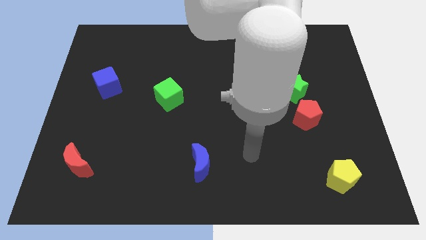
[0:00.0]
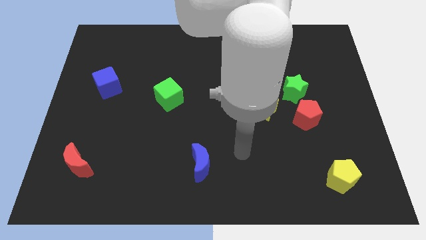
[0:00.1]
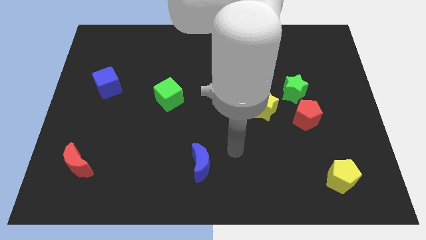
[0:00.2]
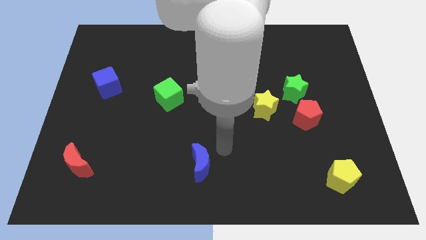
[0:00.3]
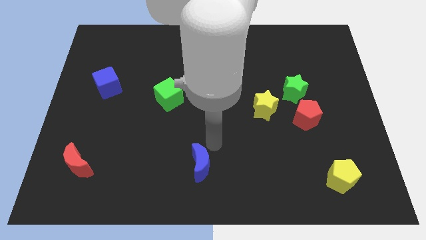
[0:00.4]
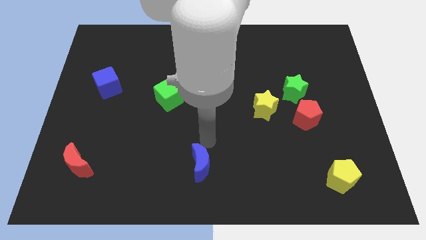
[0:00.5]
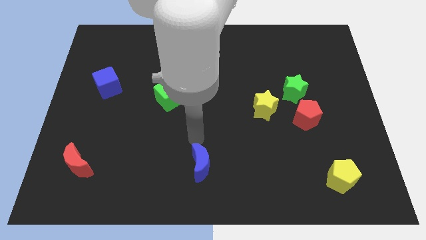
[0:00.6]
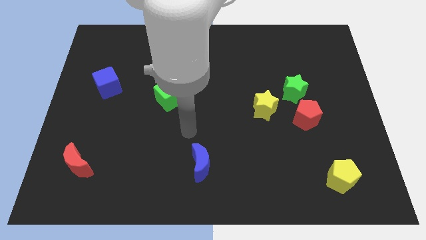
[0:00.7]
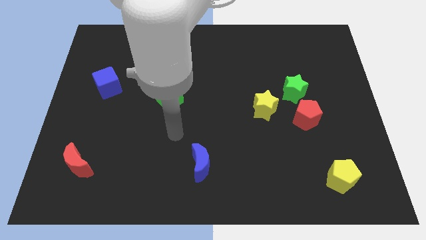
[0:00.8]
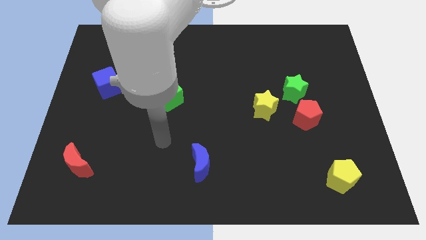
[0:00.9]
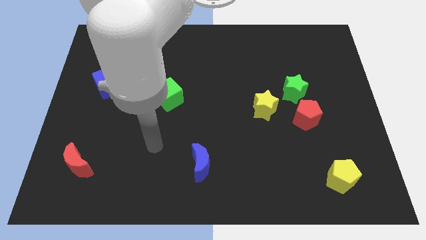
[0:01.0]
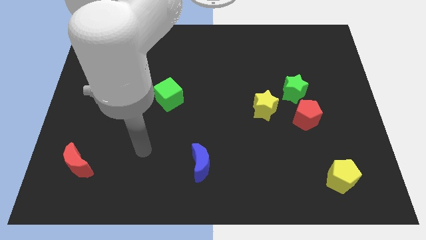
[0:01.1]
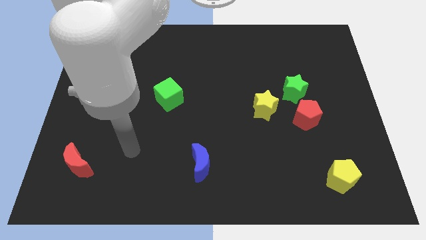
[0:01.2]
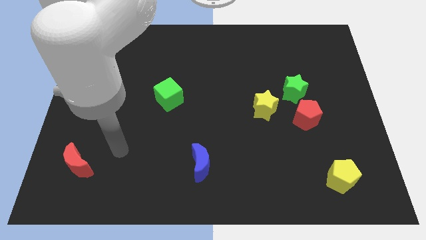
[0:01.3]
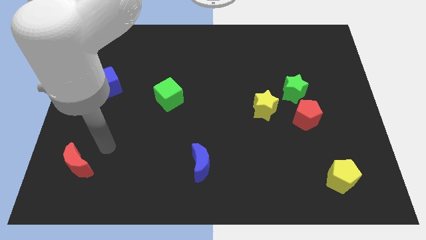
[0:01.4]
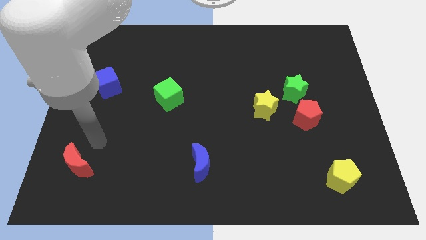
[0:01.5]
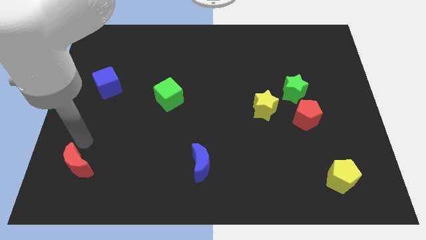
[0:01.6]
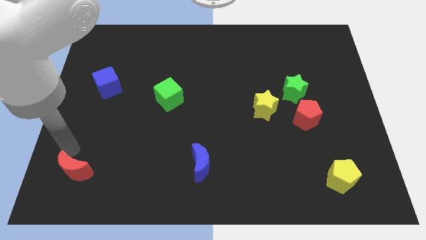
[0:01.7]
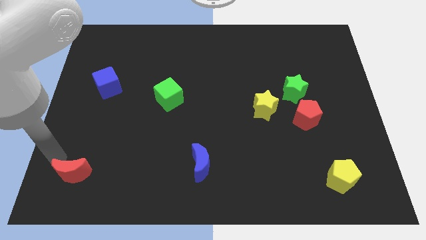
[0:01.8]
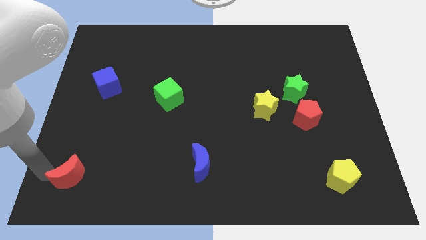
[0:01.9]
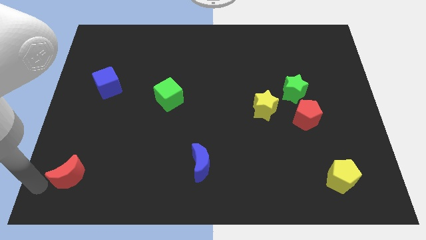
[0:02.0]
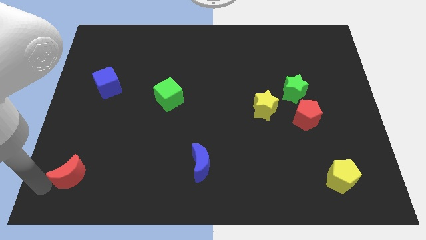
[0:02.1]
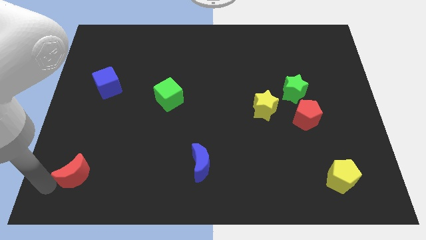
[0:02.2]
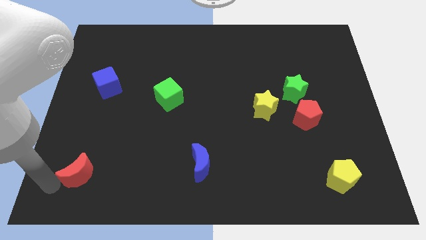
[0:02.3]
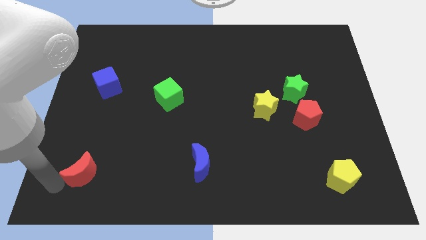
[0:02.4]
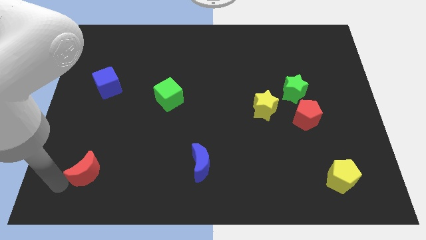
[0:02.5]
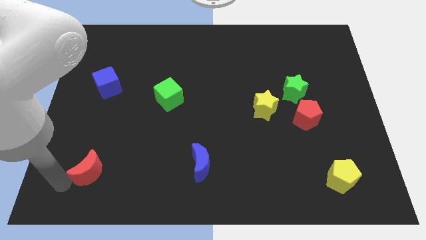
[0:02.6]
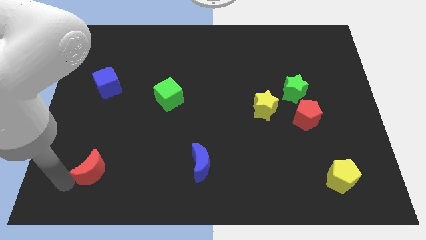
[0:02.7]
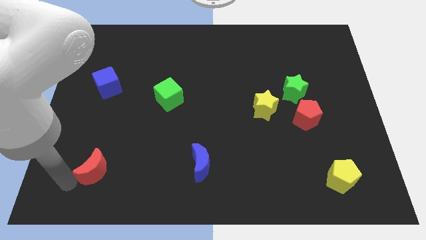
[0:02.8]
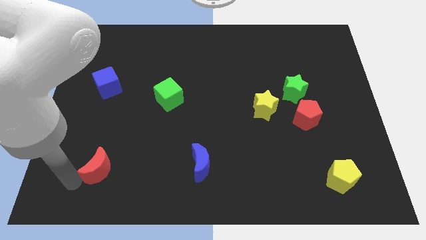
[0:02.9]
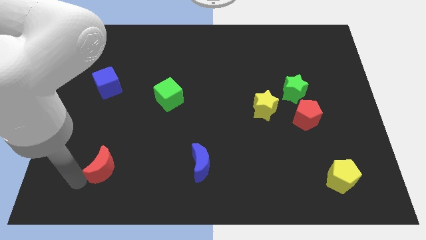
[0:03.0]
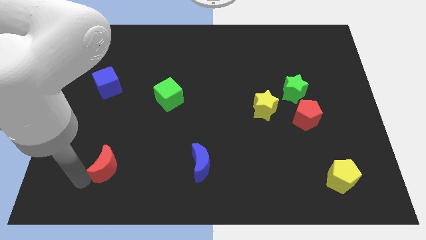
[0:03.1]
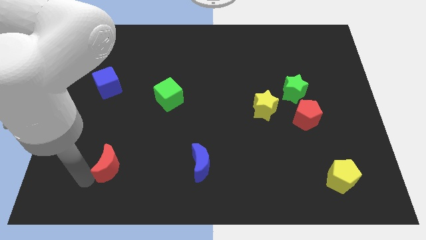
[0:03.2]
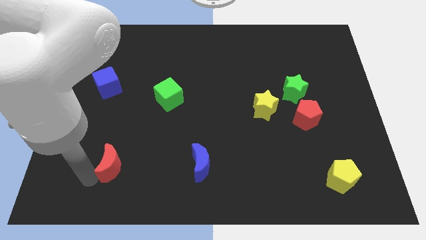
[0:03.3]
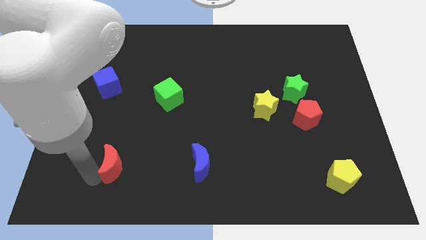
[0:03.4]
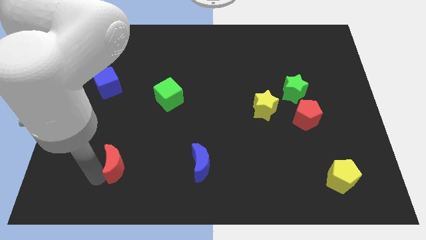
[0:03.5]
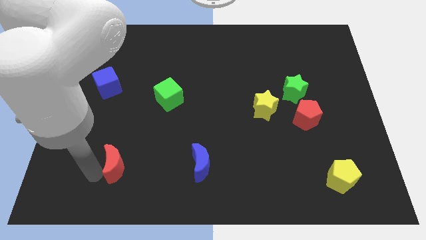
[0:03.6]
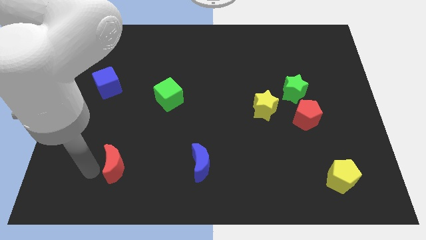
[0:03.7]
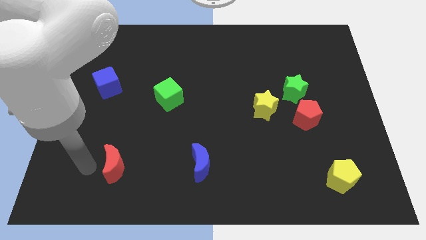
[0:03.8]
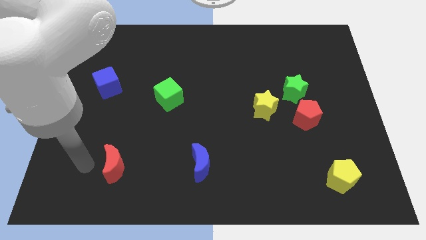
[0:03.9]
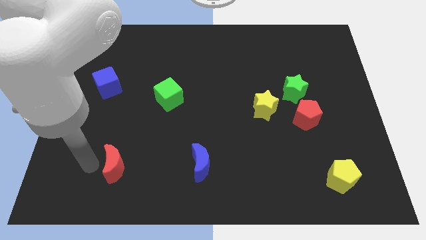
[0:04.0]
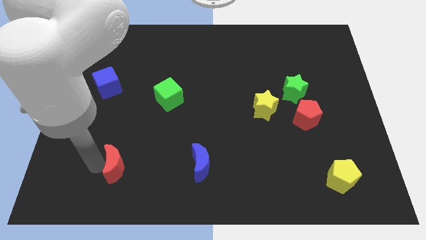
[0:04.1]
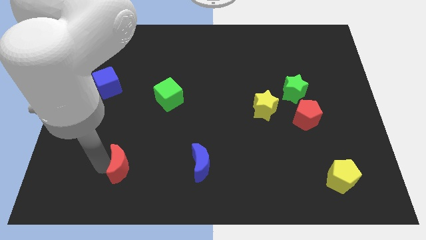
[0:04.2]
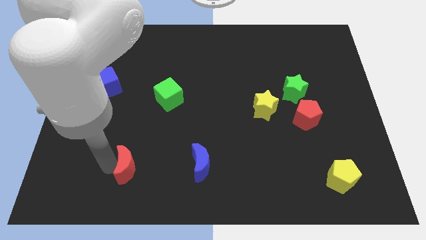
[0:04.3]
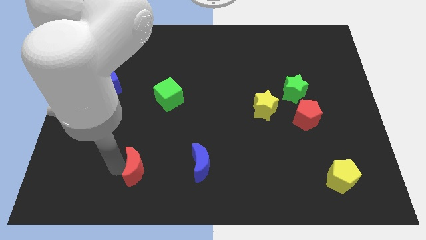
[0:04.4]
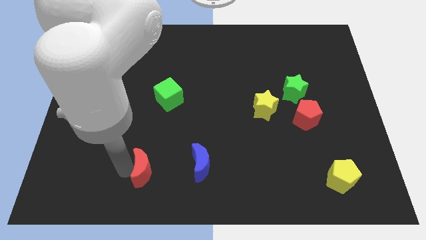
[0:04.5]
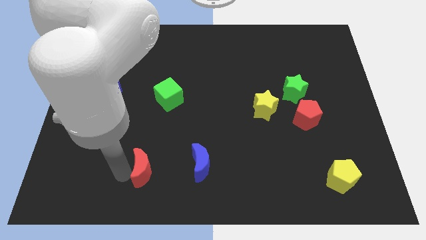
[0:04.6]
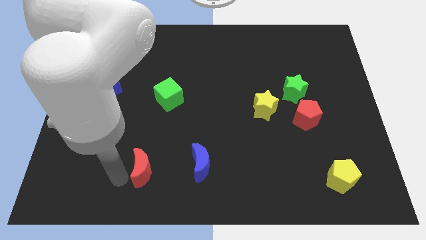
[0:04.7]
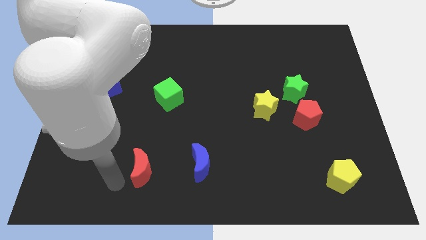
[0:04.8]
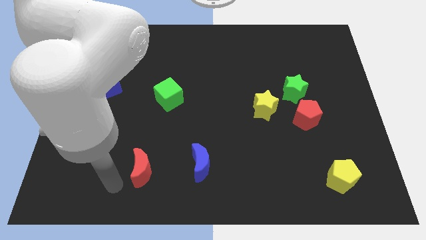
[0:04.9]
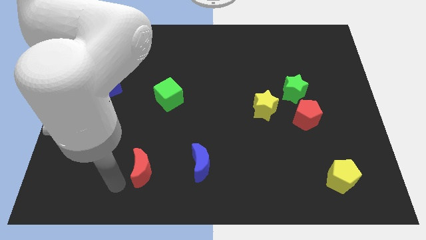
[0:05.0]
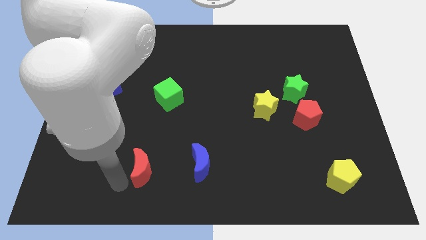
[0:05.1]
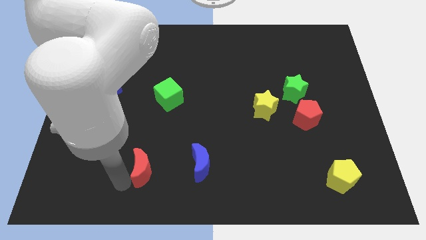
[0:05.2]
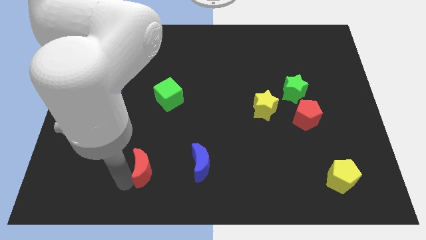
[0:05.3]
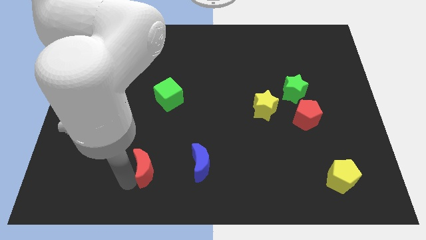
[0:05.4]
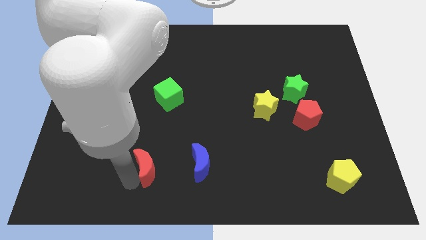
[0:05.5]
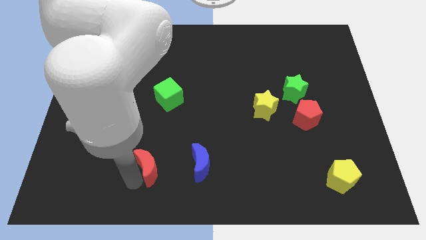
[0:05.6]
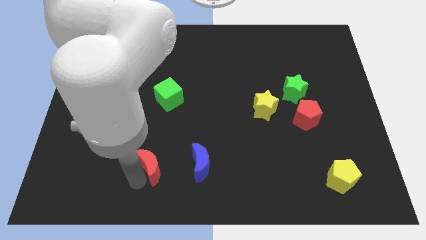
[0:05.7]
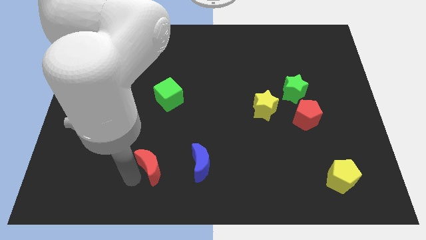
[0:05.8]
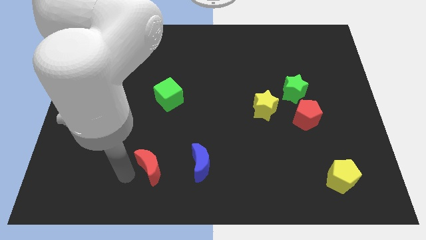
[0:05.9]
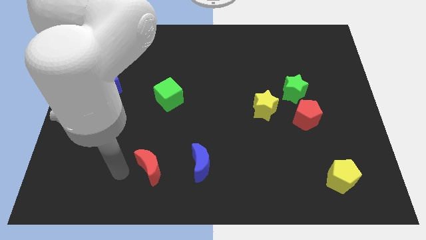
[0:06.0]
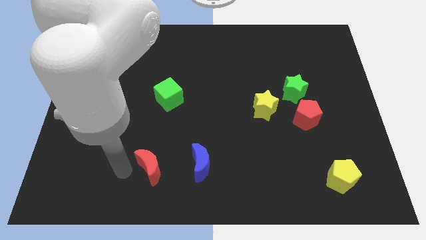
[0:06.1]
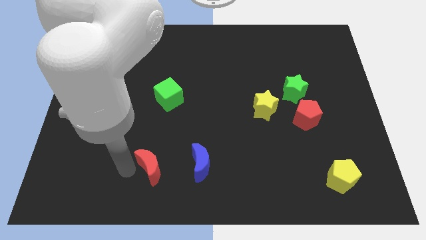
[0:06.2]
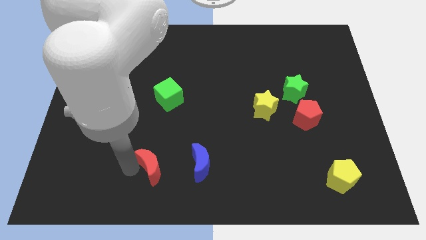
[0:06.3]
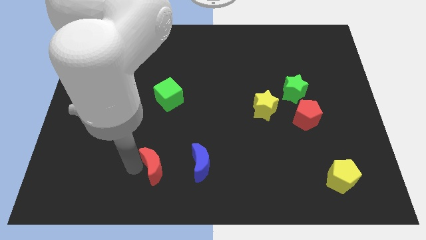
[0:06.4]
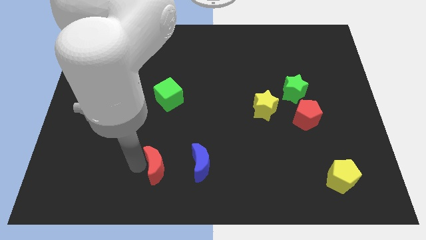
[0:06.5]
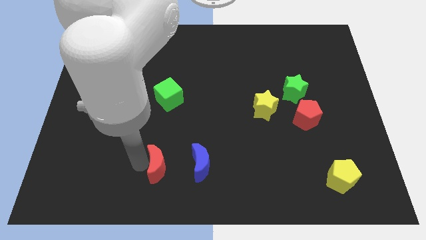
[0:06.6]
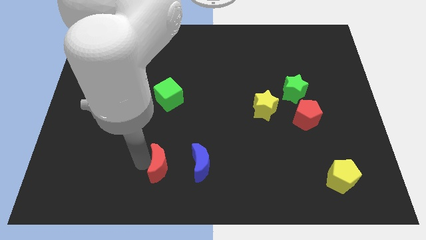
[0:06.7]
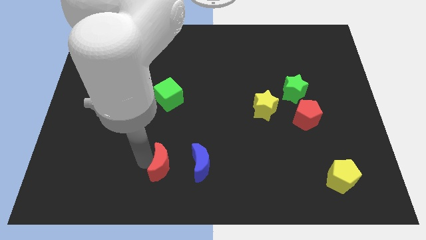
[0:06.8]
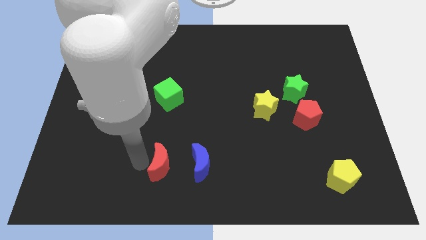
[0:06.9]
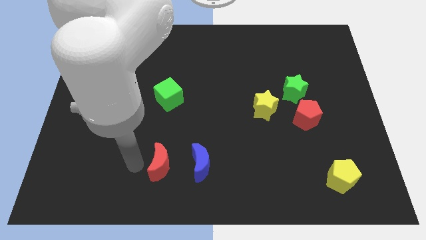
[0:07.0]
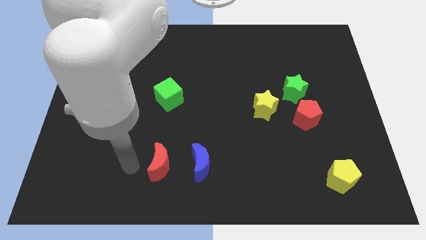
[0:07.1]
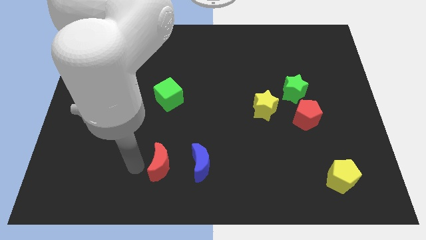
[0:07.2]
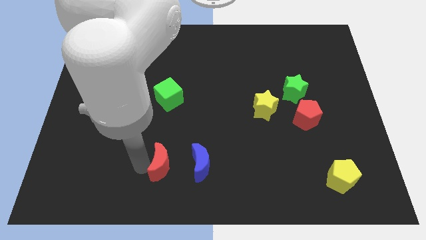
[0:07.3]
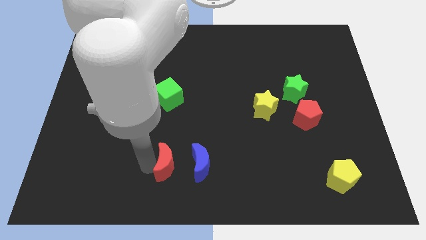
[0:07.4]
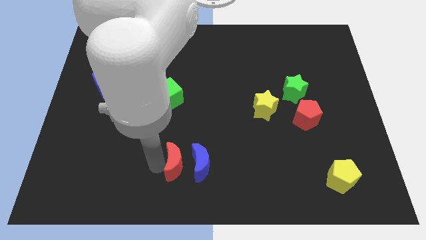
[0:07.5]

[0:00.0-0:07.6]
push the red moon next to the blue moon
